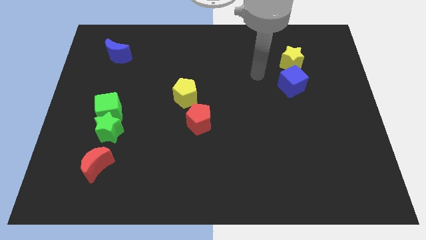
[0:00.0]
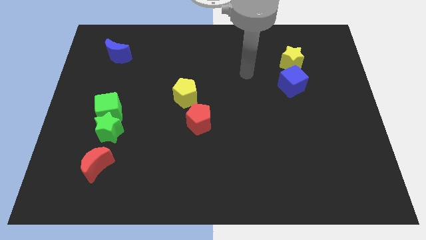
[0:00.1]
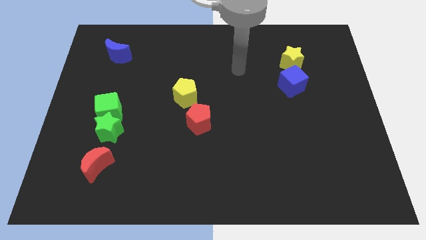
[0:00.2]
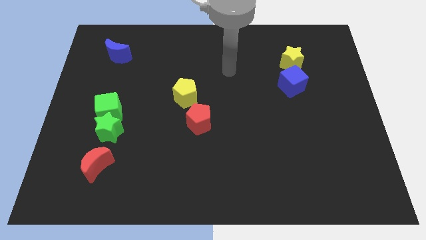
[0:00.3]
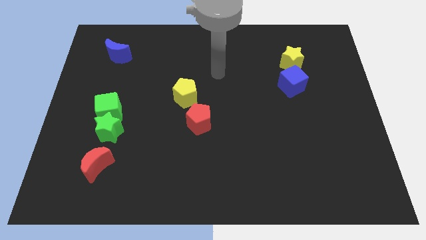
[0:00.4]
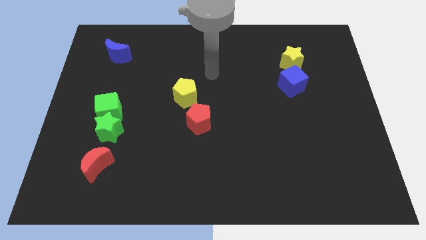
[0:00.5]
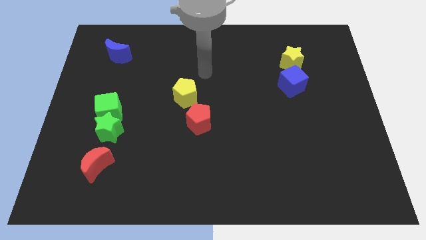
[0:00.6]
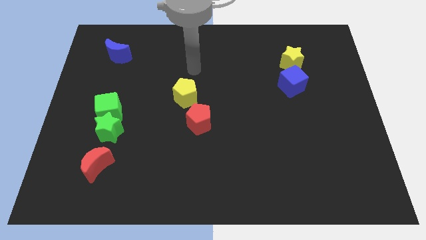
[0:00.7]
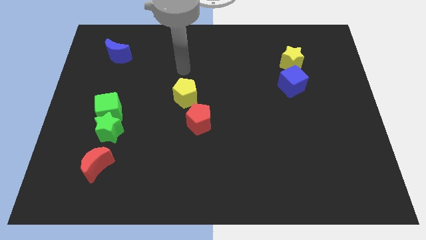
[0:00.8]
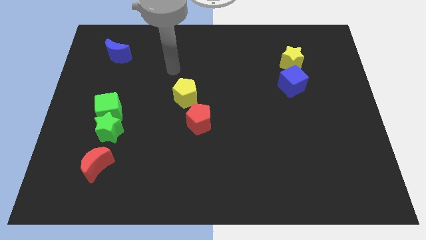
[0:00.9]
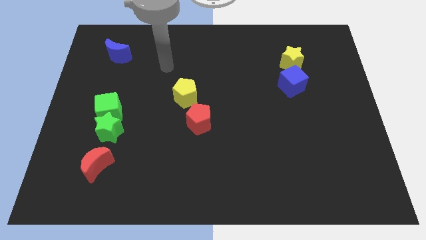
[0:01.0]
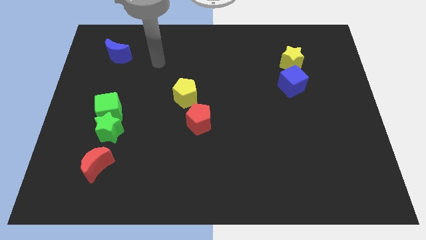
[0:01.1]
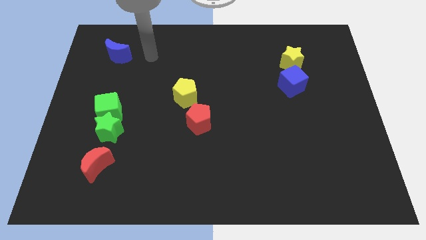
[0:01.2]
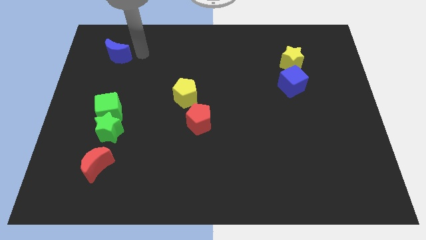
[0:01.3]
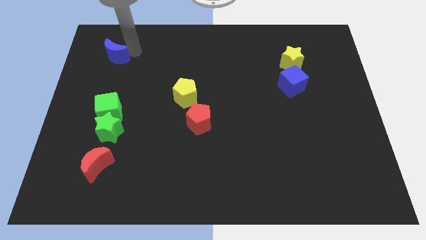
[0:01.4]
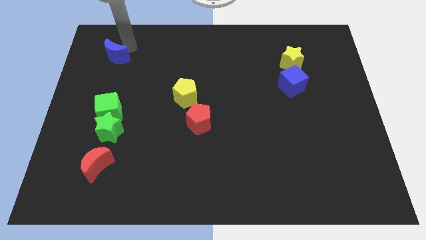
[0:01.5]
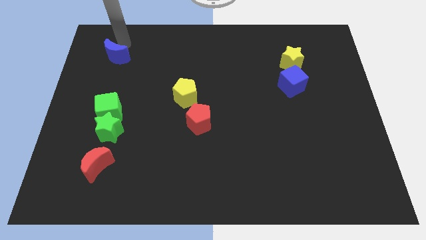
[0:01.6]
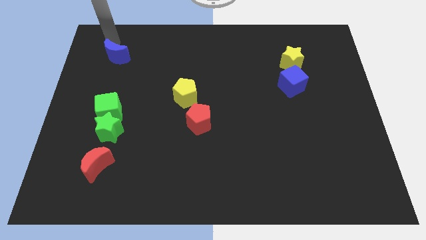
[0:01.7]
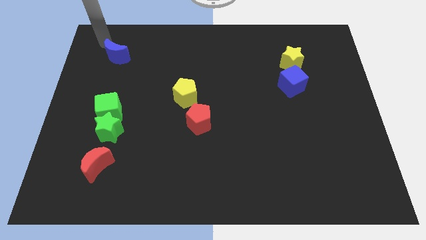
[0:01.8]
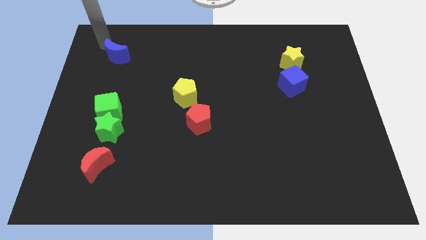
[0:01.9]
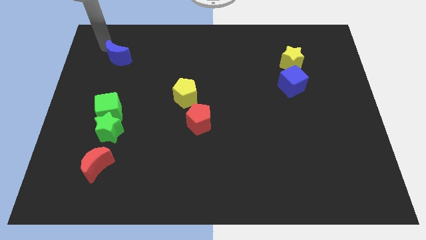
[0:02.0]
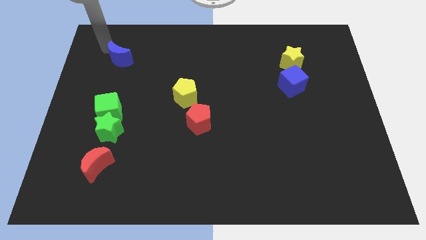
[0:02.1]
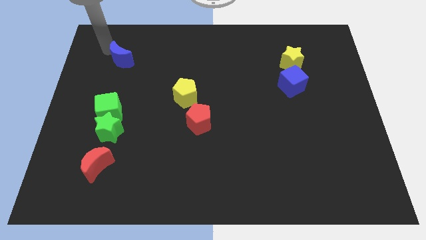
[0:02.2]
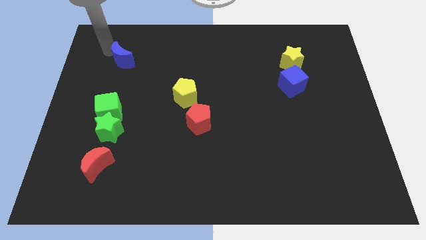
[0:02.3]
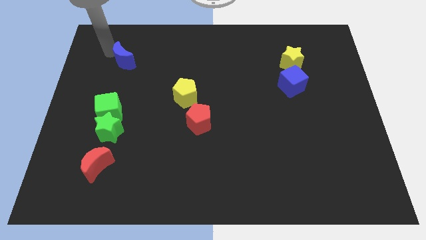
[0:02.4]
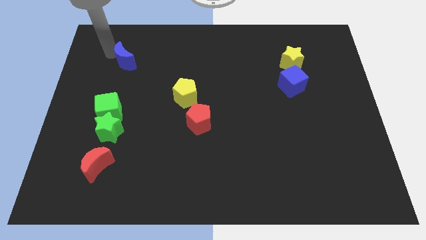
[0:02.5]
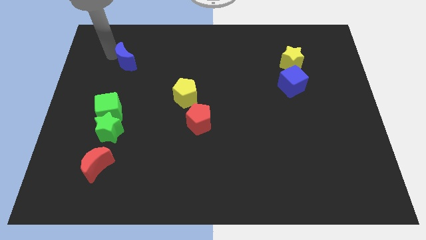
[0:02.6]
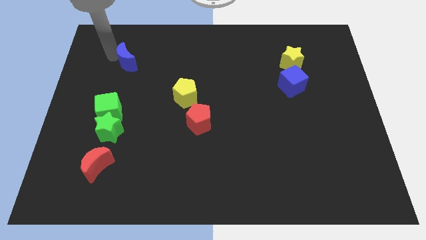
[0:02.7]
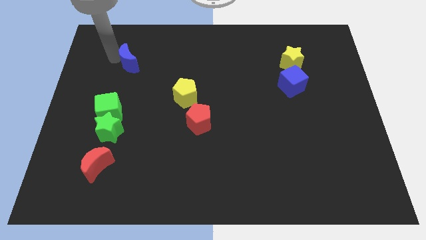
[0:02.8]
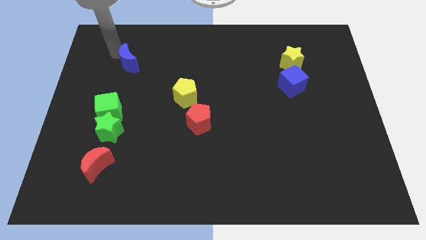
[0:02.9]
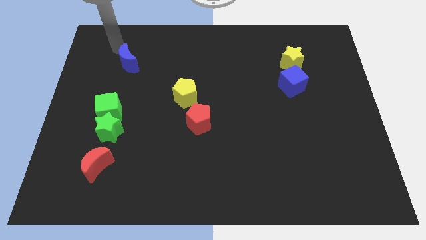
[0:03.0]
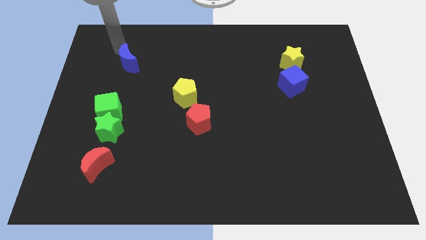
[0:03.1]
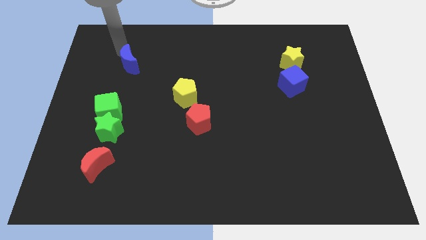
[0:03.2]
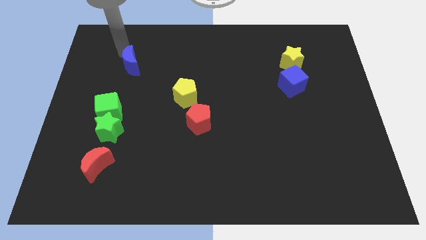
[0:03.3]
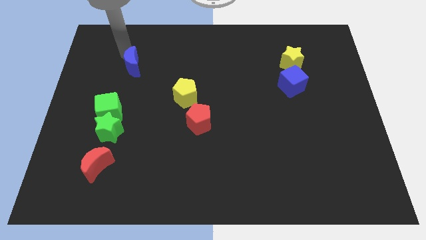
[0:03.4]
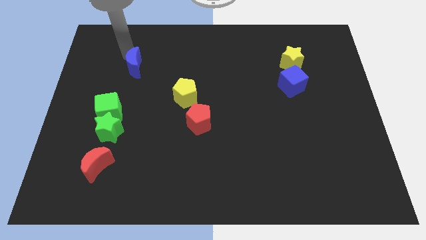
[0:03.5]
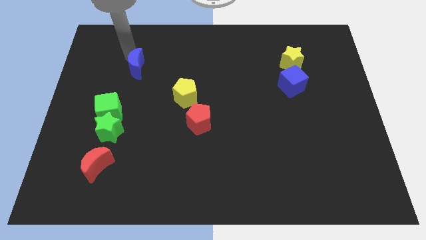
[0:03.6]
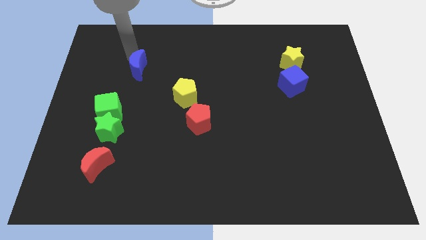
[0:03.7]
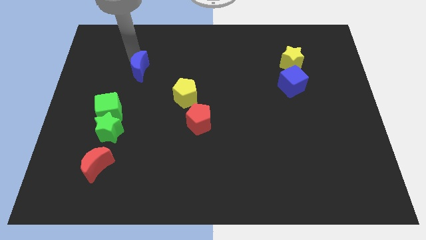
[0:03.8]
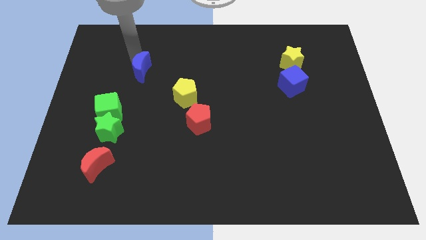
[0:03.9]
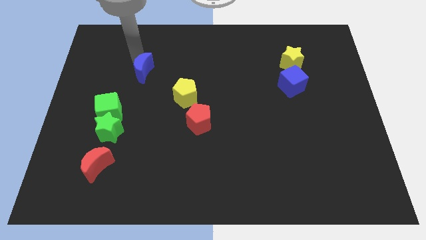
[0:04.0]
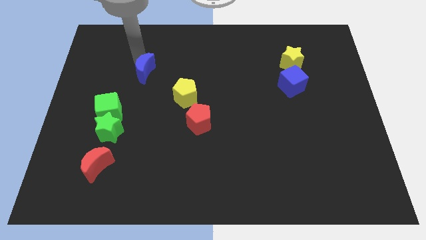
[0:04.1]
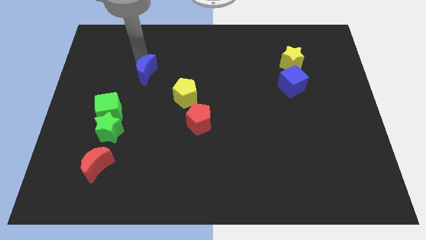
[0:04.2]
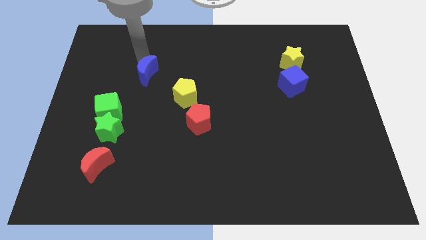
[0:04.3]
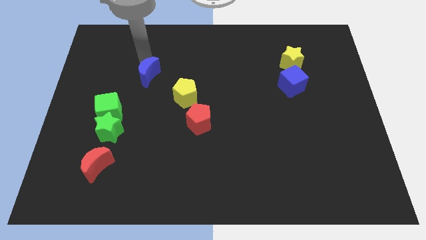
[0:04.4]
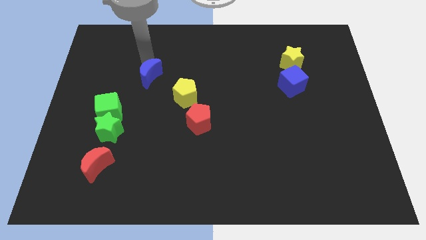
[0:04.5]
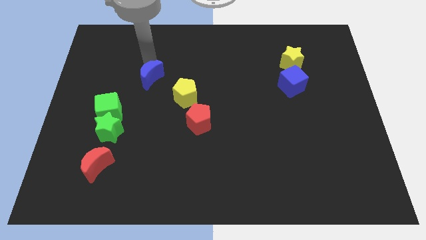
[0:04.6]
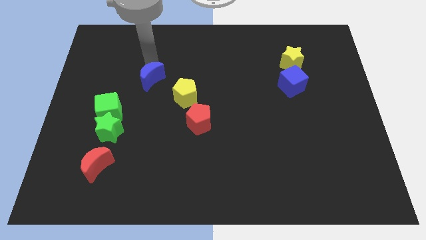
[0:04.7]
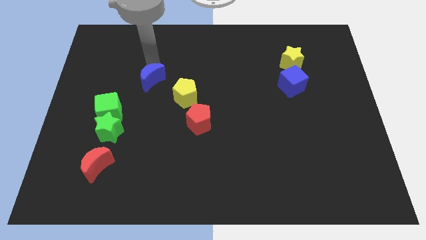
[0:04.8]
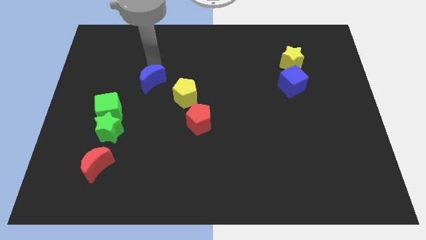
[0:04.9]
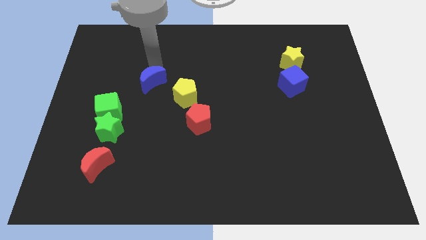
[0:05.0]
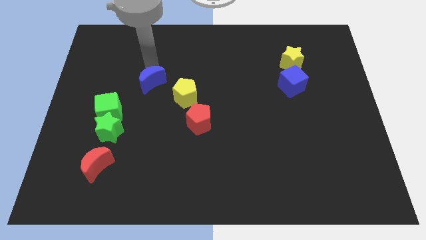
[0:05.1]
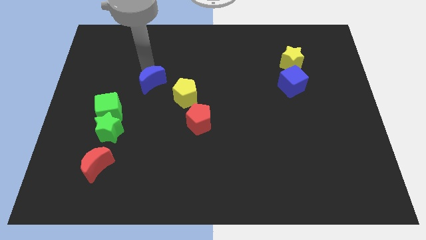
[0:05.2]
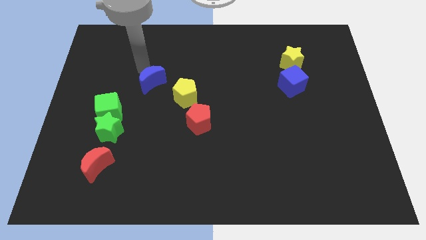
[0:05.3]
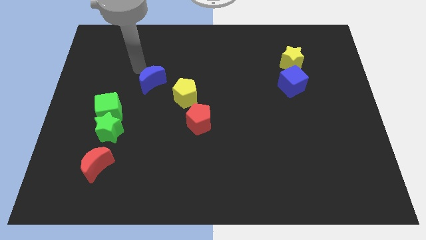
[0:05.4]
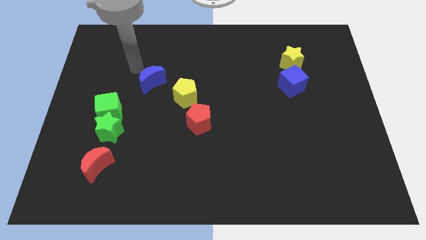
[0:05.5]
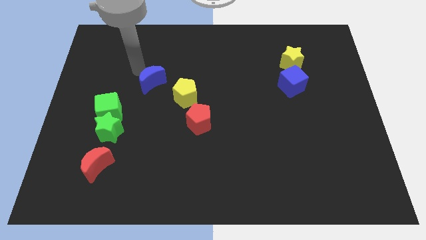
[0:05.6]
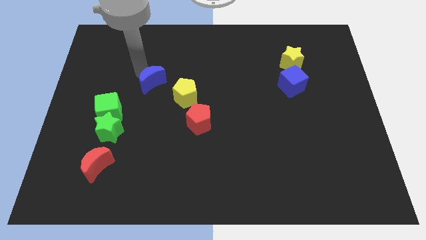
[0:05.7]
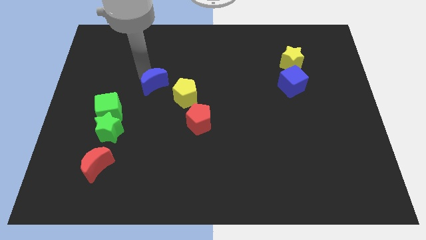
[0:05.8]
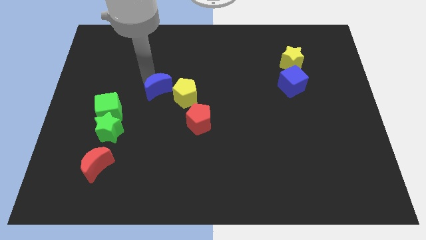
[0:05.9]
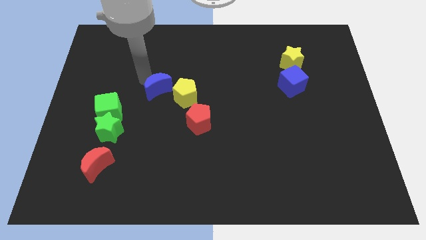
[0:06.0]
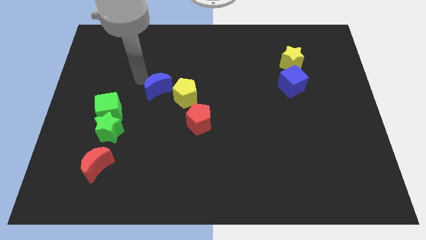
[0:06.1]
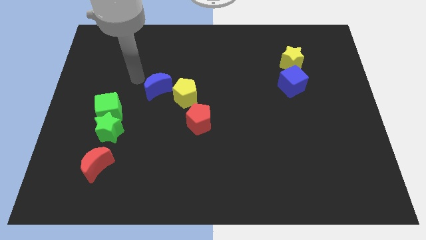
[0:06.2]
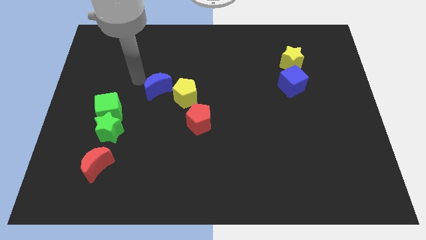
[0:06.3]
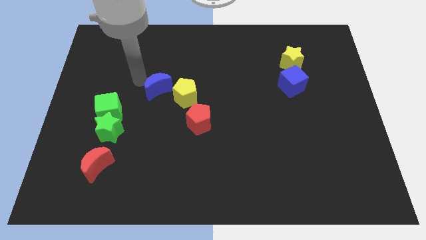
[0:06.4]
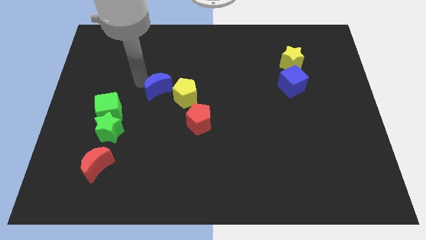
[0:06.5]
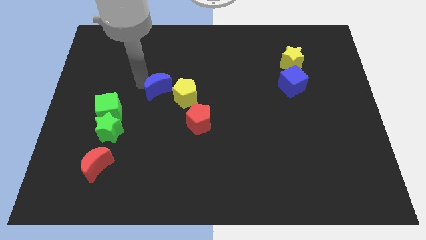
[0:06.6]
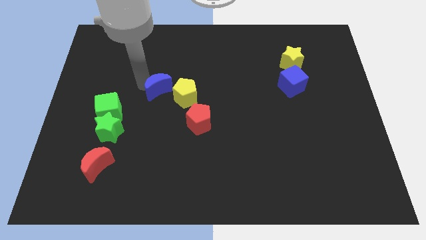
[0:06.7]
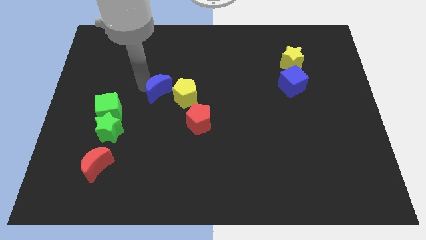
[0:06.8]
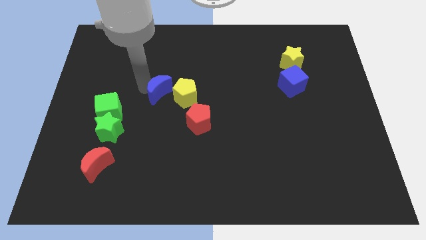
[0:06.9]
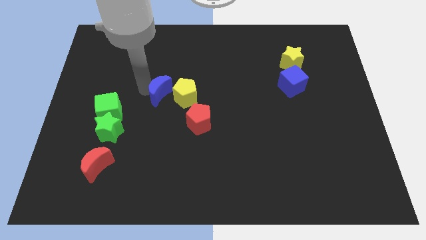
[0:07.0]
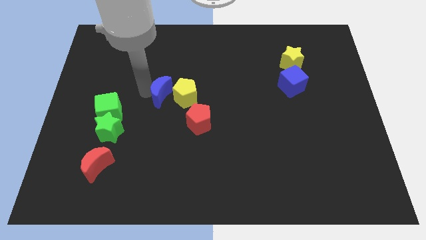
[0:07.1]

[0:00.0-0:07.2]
put the blue moon next to the yellow pentagon

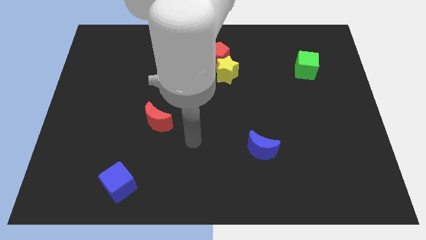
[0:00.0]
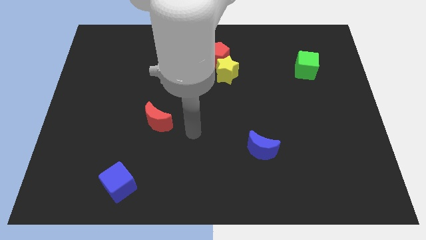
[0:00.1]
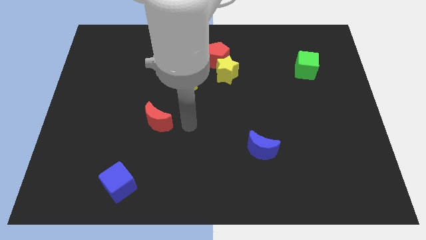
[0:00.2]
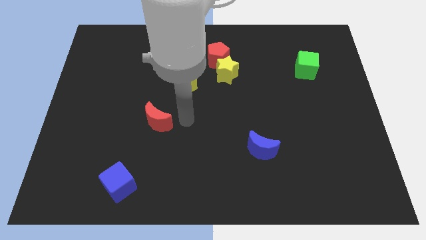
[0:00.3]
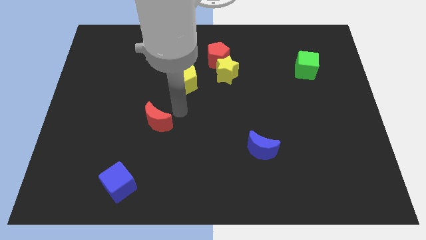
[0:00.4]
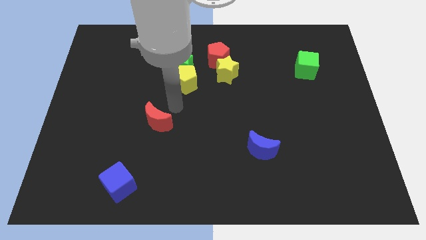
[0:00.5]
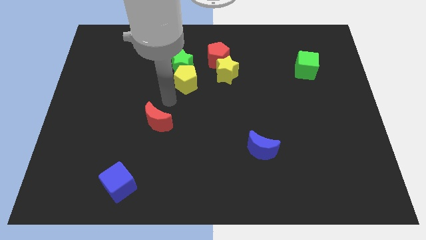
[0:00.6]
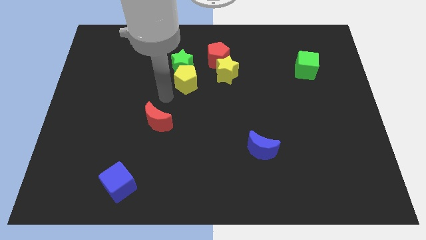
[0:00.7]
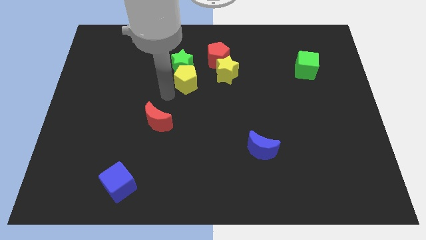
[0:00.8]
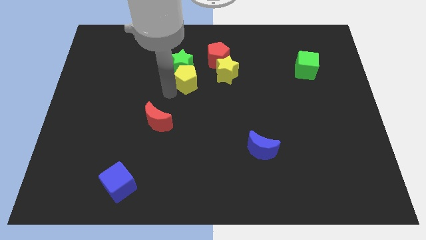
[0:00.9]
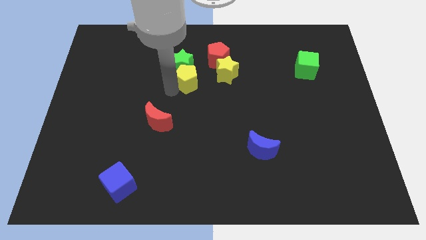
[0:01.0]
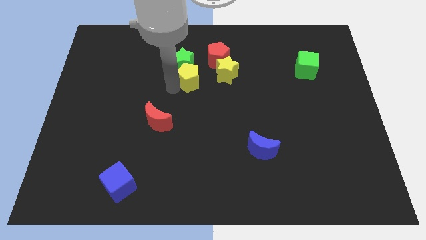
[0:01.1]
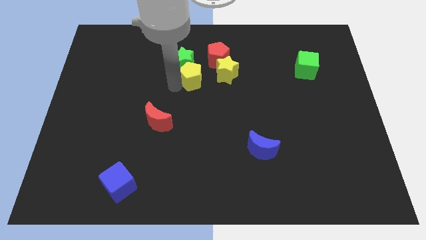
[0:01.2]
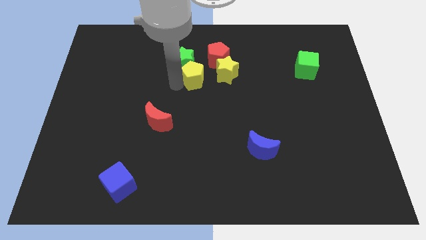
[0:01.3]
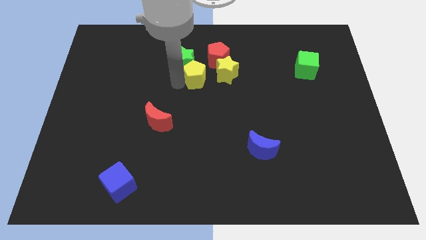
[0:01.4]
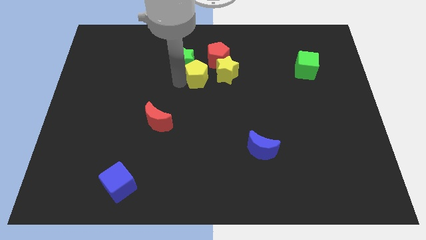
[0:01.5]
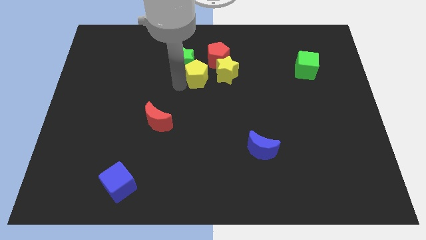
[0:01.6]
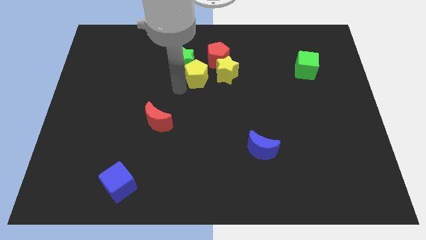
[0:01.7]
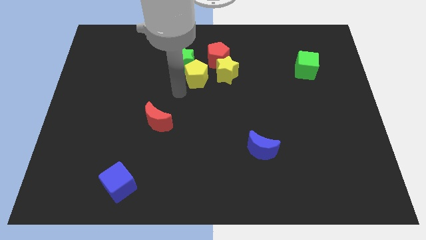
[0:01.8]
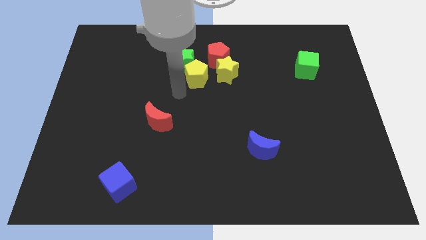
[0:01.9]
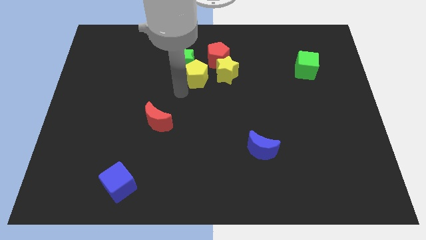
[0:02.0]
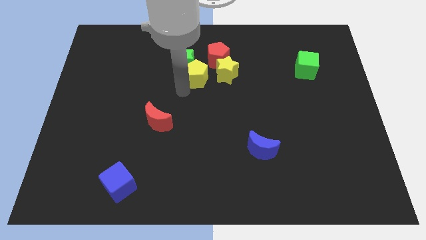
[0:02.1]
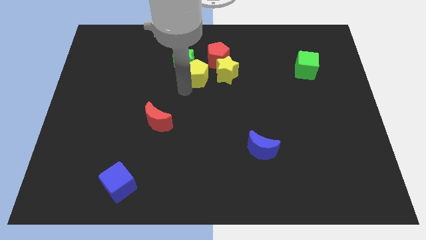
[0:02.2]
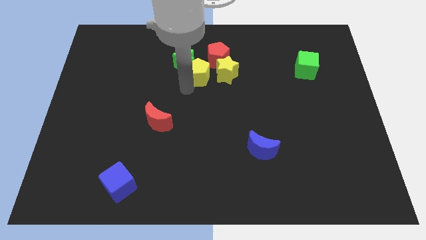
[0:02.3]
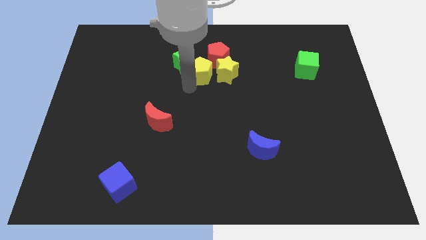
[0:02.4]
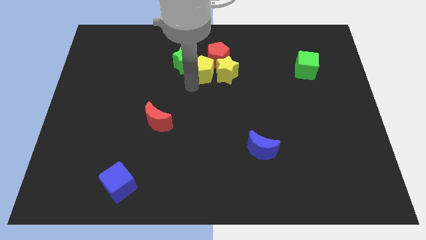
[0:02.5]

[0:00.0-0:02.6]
push the yellow pentagon close to the red pentagon
